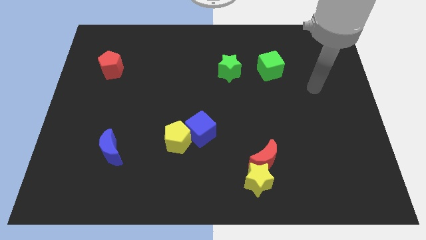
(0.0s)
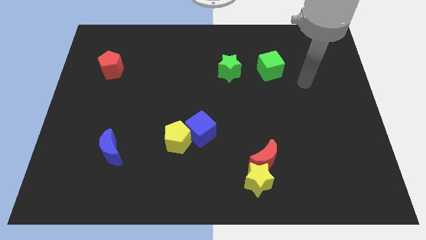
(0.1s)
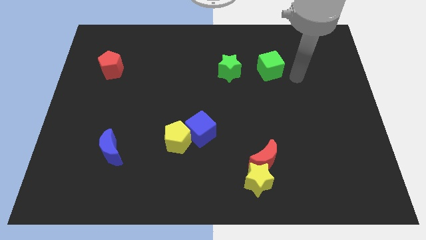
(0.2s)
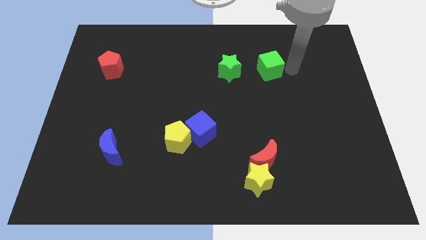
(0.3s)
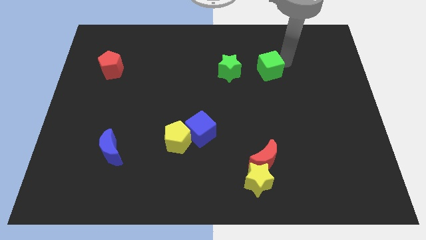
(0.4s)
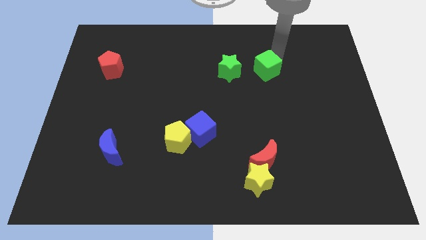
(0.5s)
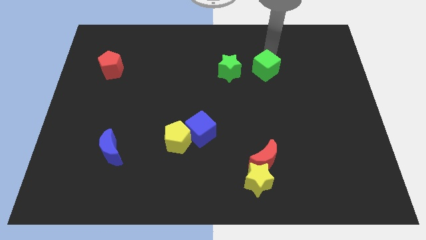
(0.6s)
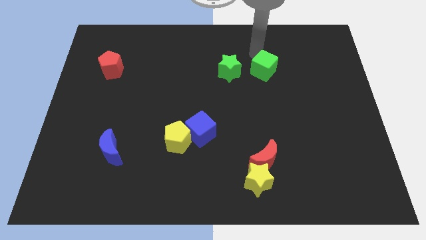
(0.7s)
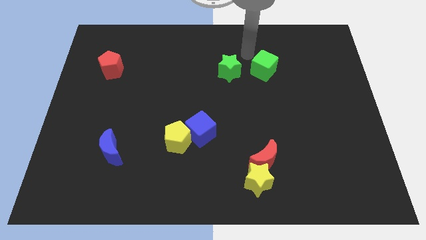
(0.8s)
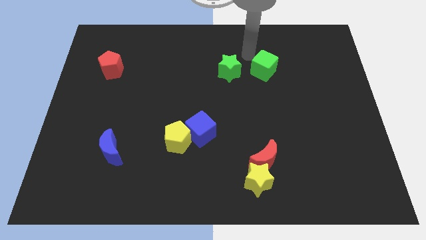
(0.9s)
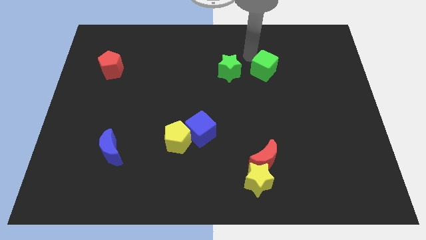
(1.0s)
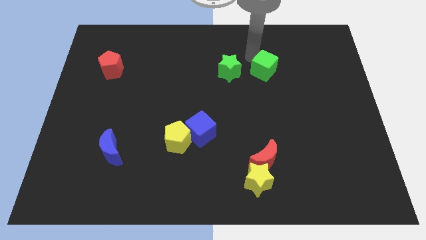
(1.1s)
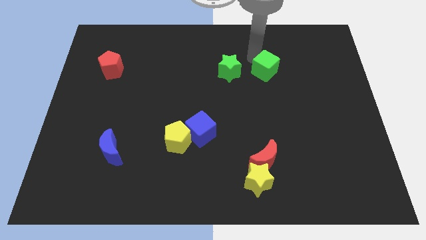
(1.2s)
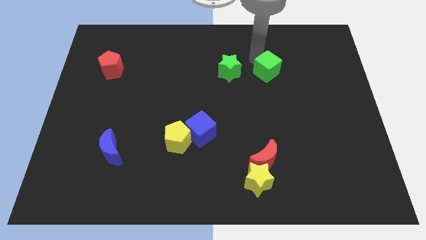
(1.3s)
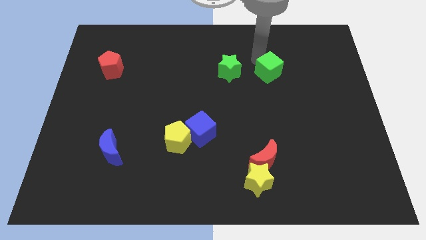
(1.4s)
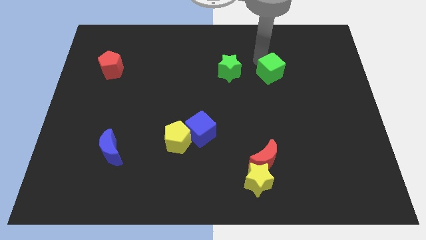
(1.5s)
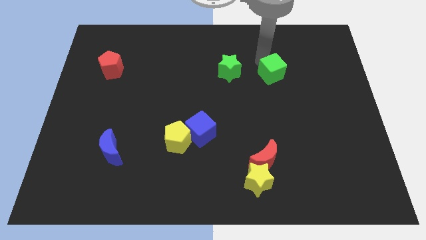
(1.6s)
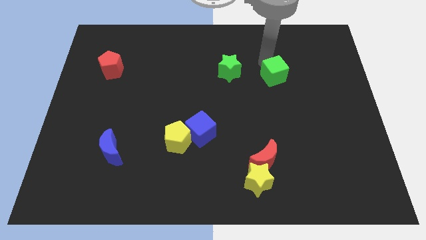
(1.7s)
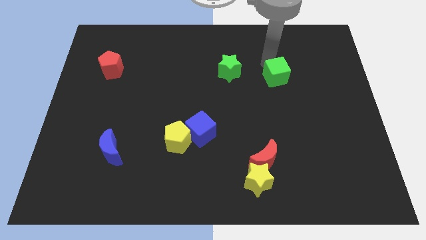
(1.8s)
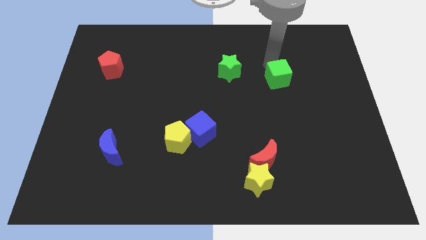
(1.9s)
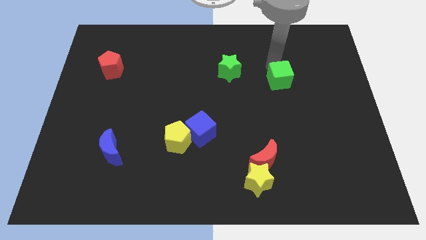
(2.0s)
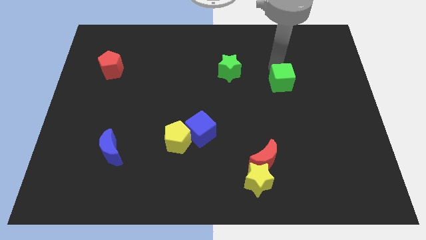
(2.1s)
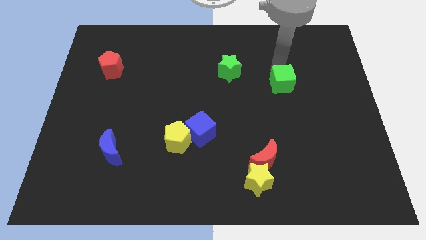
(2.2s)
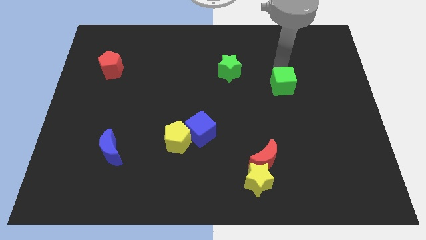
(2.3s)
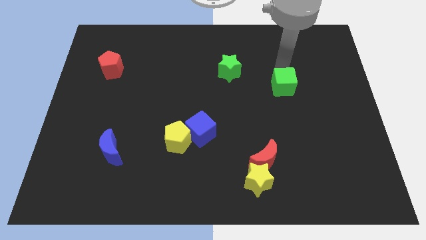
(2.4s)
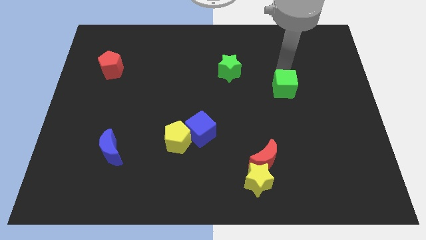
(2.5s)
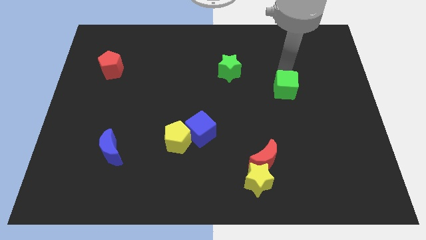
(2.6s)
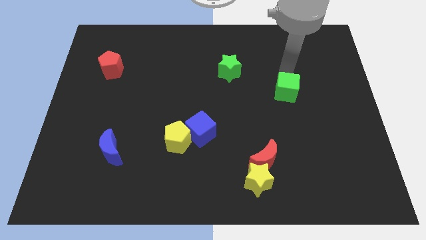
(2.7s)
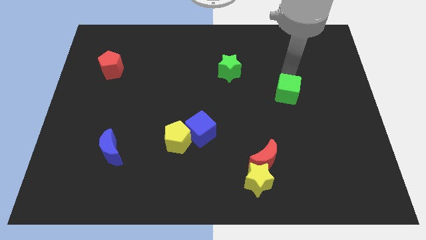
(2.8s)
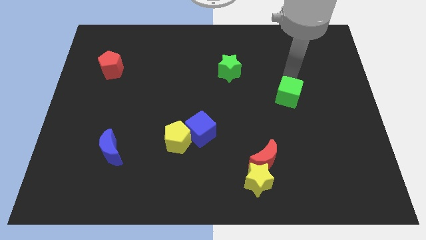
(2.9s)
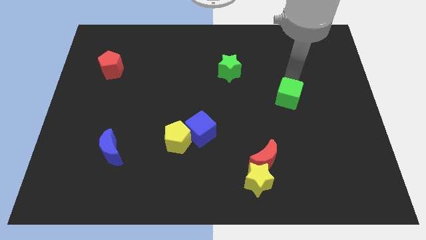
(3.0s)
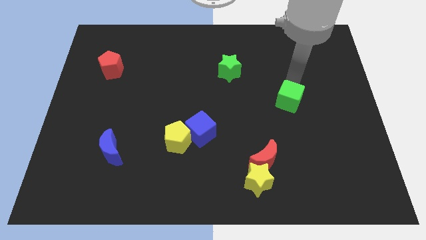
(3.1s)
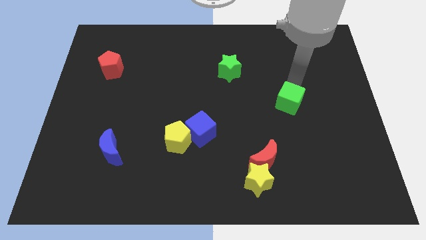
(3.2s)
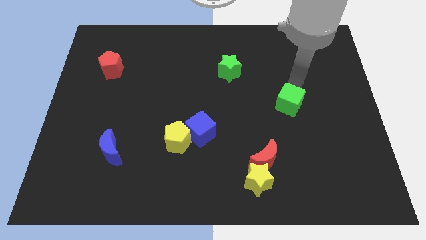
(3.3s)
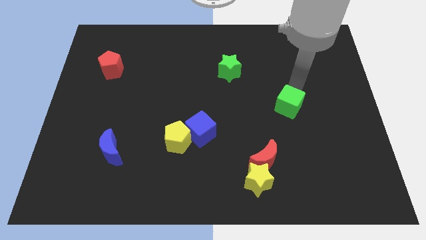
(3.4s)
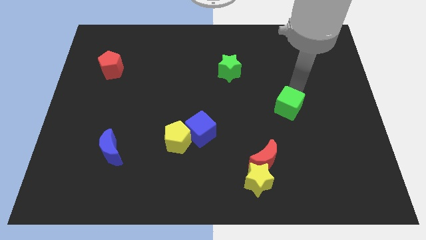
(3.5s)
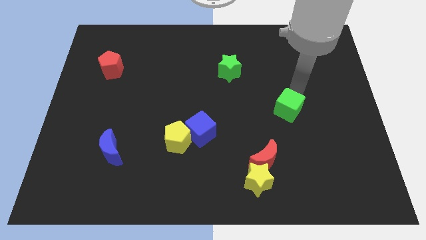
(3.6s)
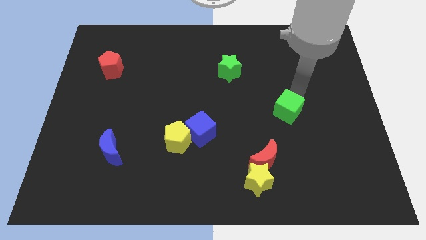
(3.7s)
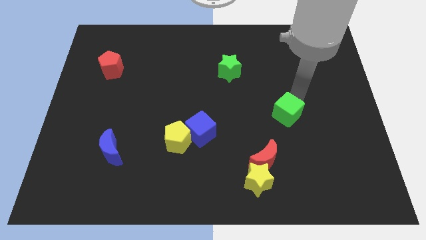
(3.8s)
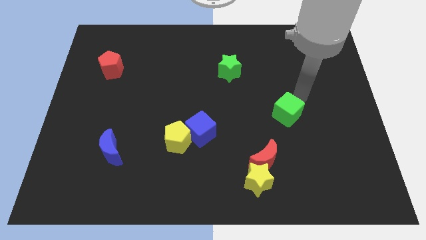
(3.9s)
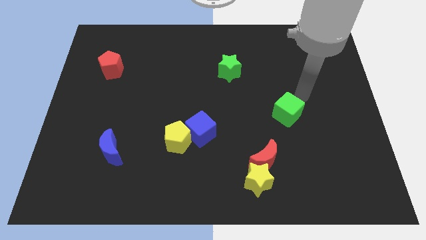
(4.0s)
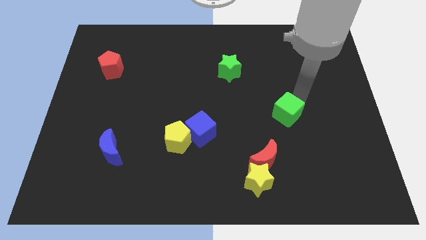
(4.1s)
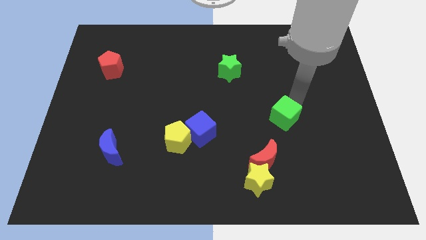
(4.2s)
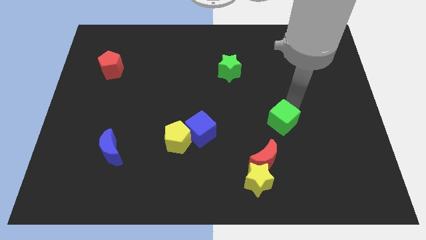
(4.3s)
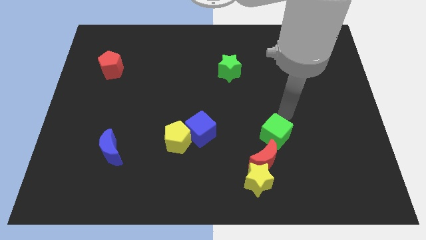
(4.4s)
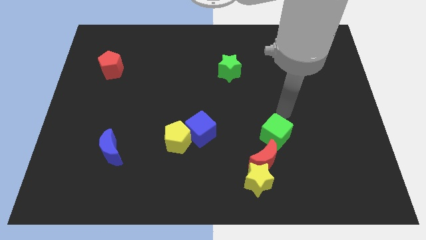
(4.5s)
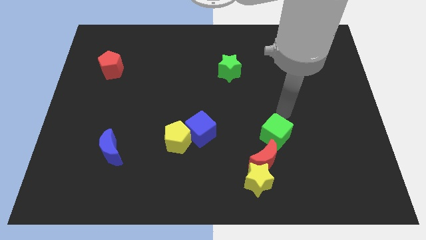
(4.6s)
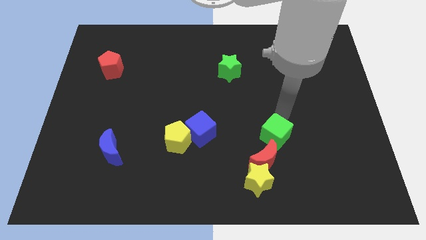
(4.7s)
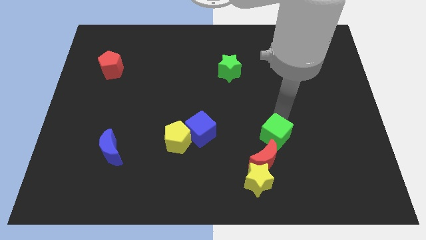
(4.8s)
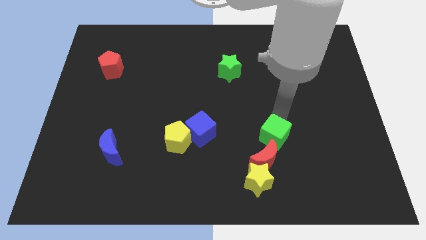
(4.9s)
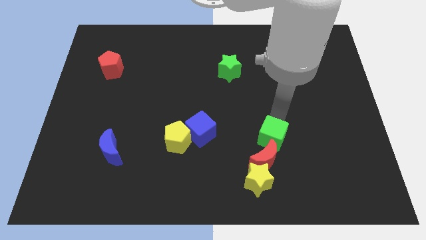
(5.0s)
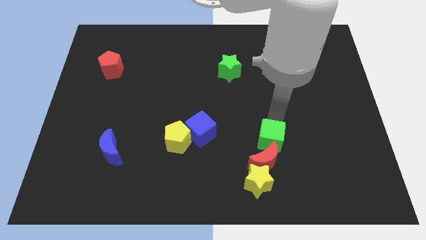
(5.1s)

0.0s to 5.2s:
push the green cube to the red moon

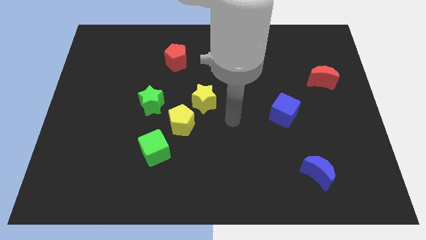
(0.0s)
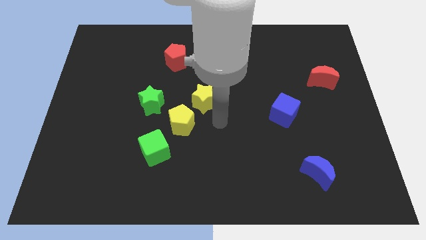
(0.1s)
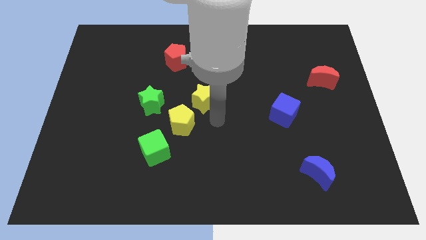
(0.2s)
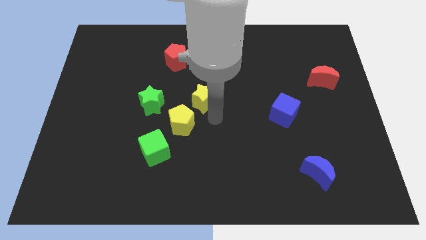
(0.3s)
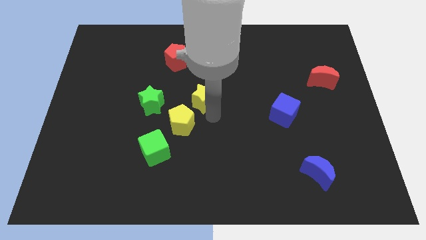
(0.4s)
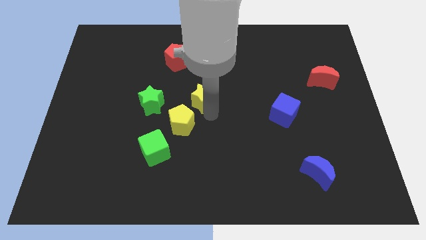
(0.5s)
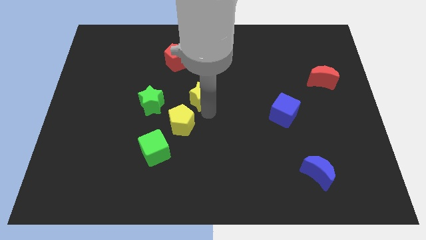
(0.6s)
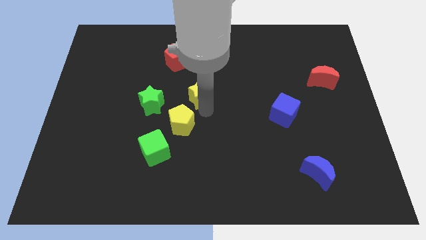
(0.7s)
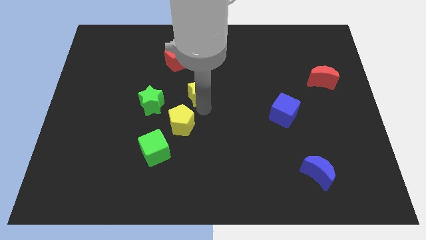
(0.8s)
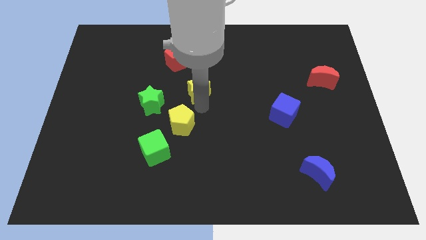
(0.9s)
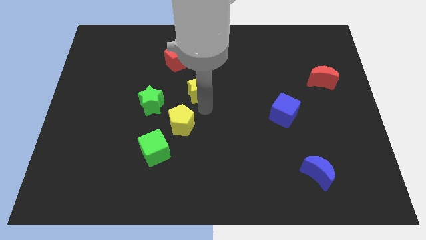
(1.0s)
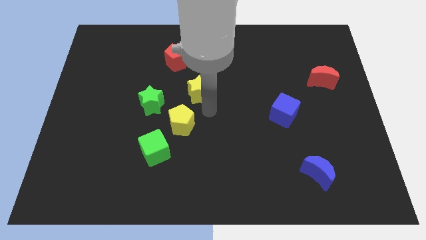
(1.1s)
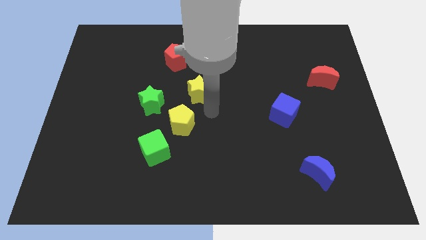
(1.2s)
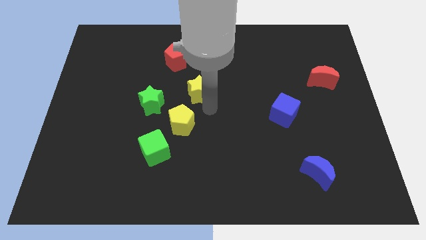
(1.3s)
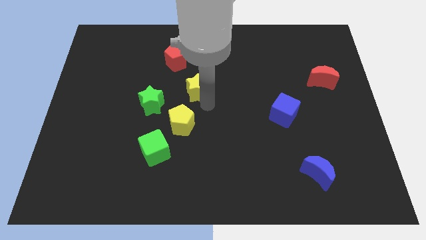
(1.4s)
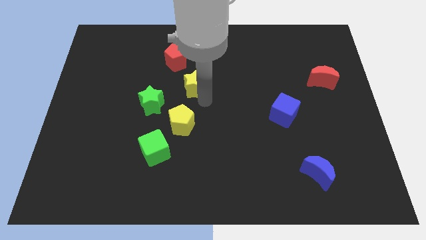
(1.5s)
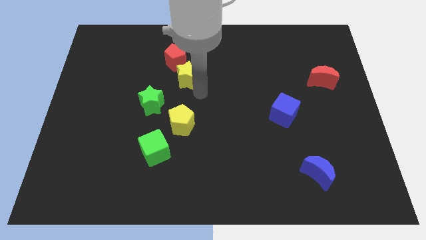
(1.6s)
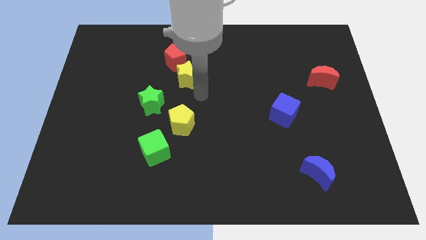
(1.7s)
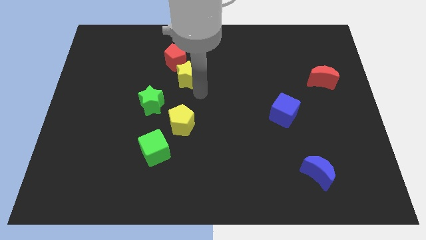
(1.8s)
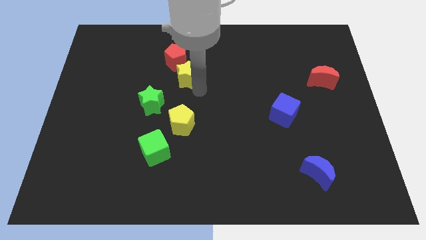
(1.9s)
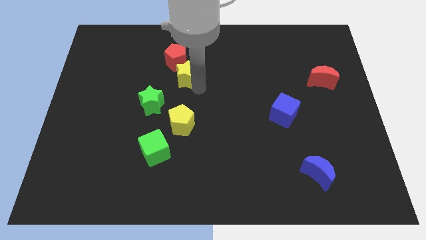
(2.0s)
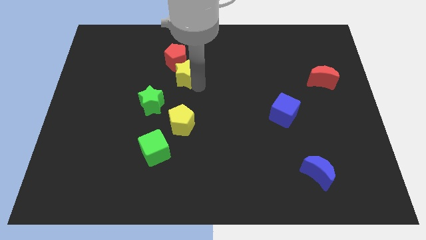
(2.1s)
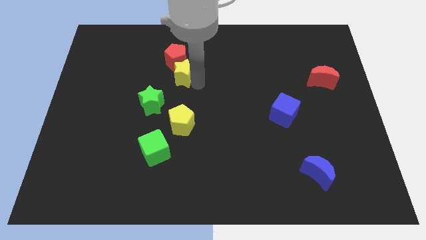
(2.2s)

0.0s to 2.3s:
move the yellow star to the red pentagon
